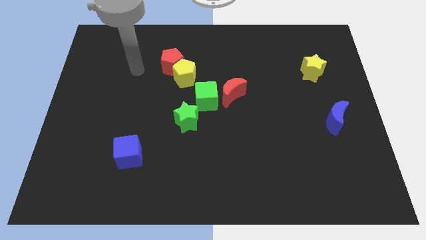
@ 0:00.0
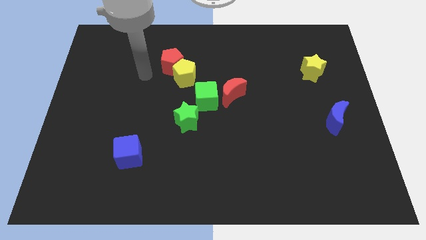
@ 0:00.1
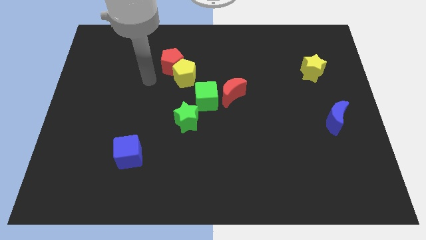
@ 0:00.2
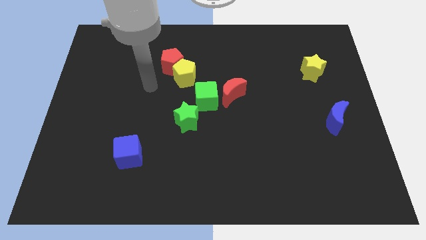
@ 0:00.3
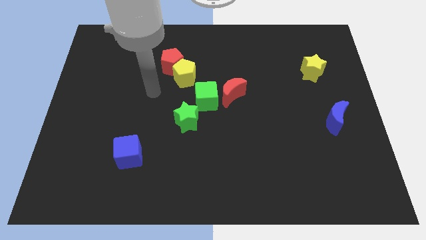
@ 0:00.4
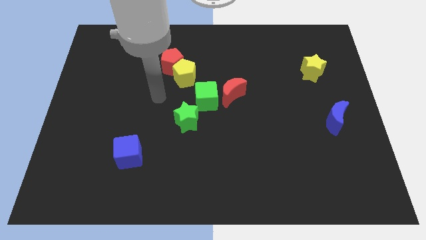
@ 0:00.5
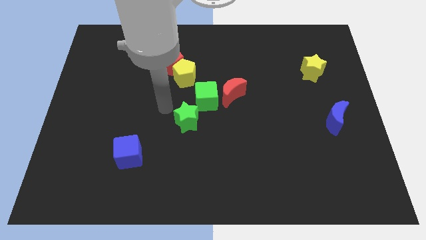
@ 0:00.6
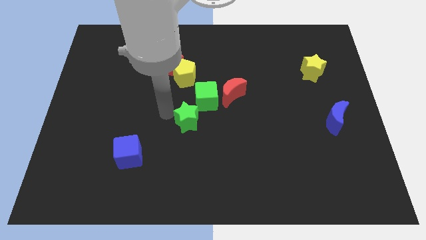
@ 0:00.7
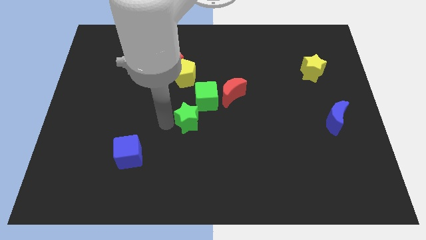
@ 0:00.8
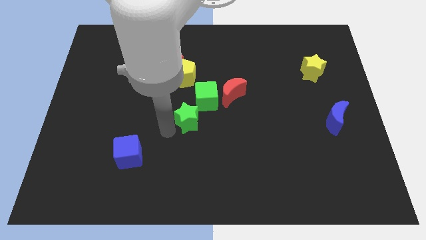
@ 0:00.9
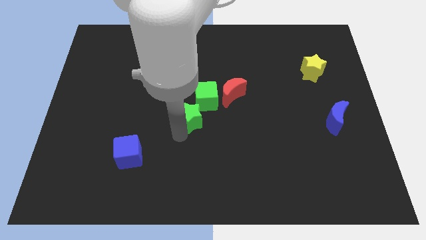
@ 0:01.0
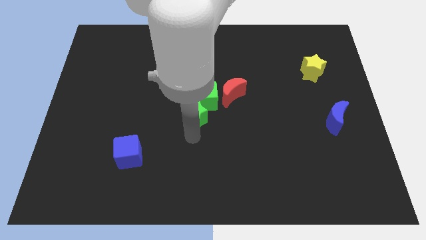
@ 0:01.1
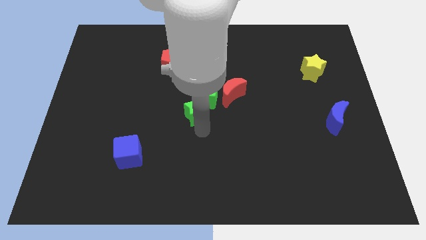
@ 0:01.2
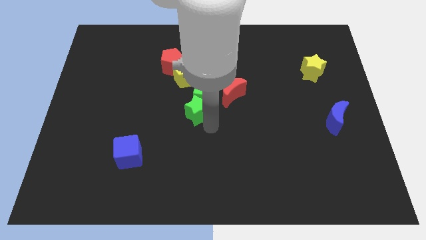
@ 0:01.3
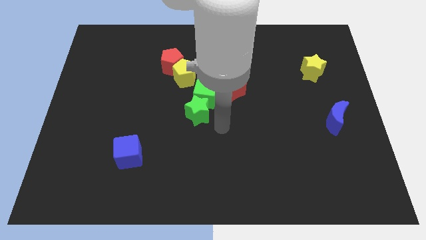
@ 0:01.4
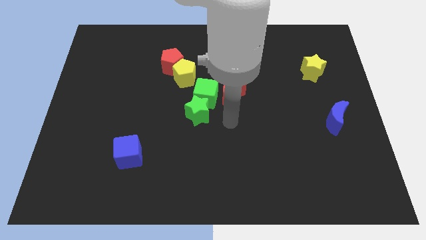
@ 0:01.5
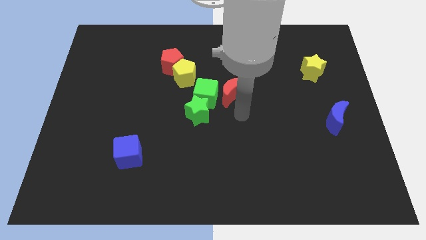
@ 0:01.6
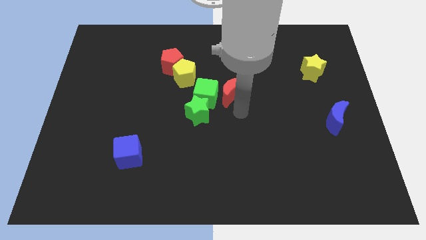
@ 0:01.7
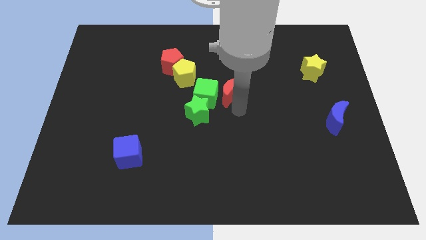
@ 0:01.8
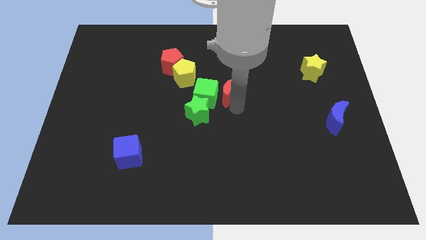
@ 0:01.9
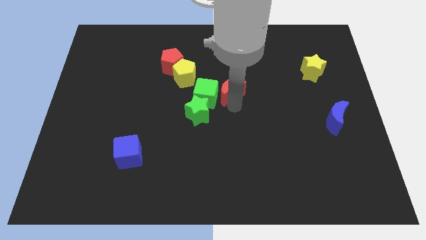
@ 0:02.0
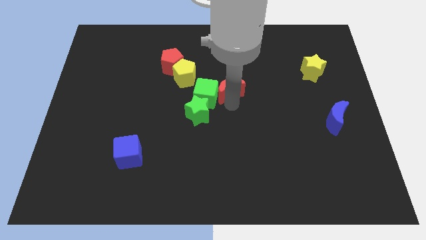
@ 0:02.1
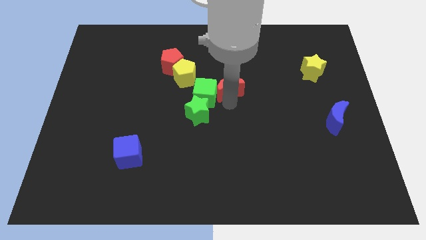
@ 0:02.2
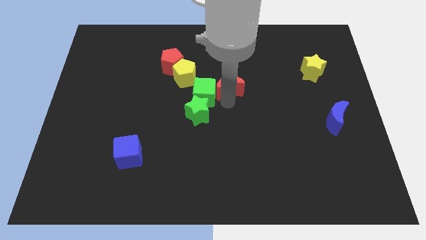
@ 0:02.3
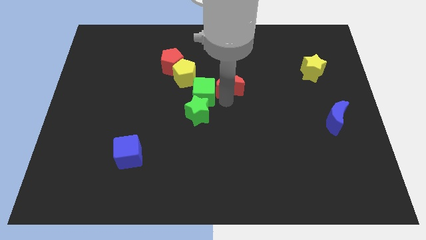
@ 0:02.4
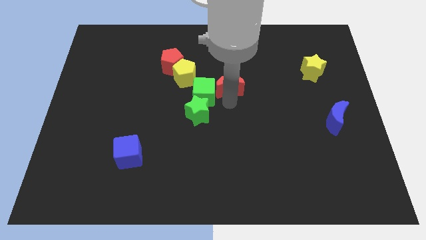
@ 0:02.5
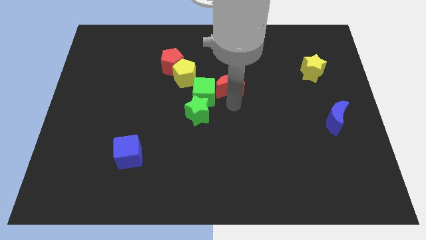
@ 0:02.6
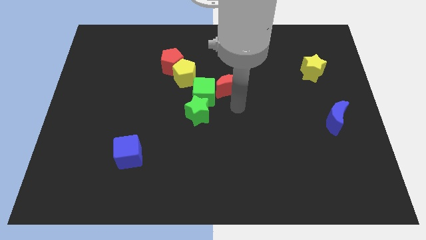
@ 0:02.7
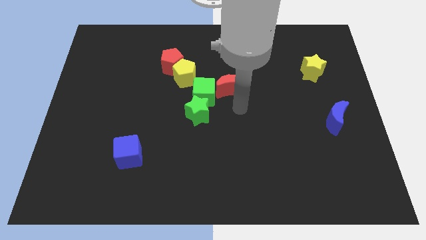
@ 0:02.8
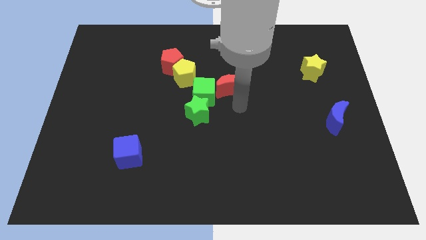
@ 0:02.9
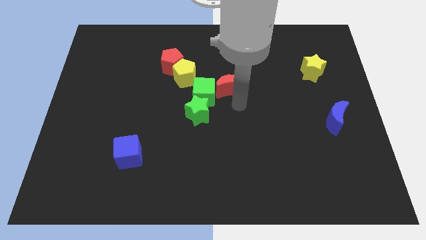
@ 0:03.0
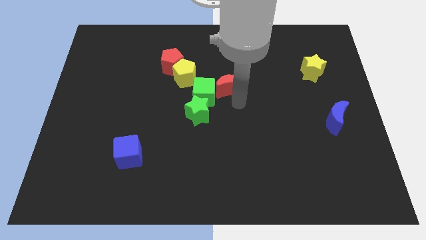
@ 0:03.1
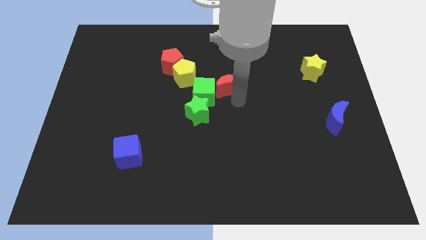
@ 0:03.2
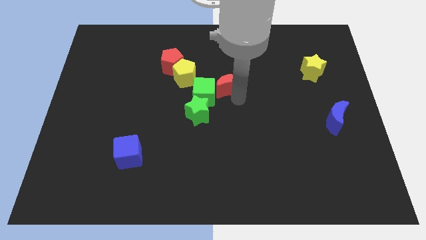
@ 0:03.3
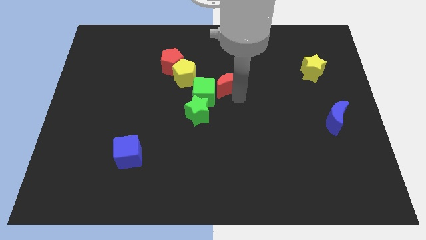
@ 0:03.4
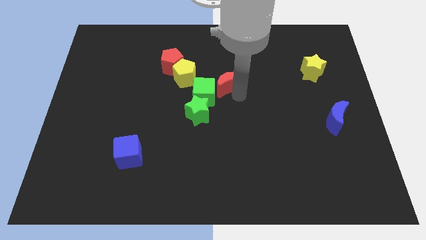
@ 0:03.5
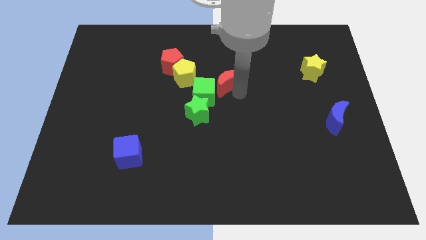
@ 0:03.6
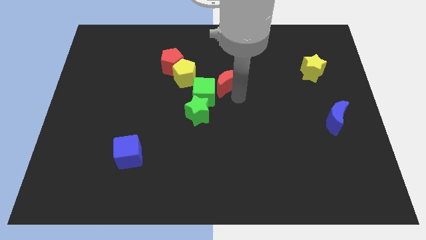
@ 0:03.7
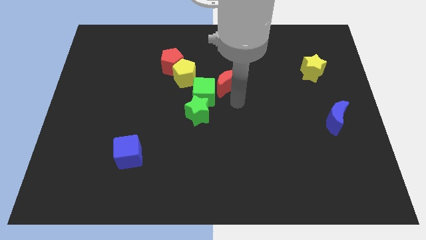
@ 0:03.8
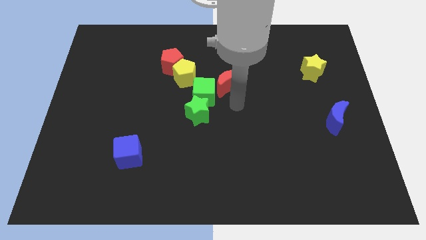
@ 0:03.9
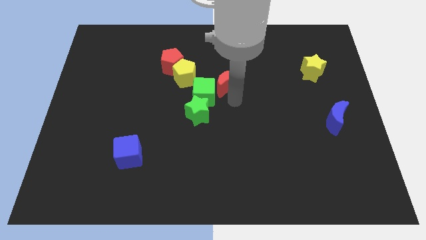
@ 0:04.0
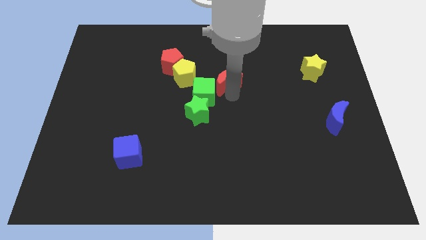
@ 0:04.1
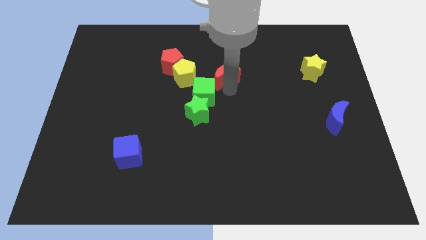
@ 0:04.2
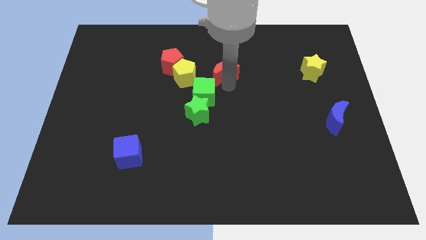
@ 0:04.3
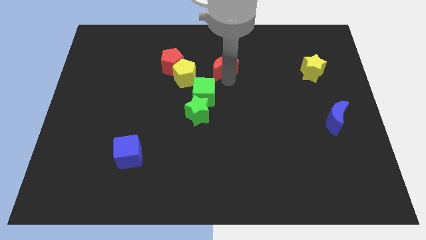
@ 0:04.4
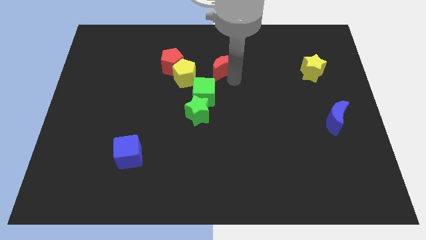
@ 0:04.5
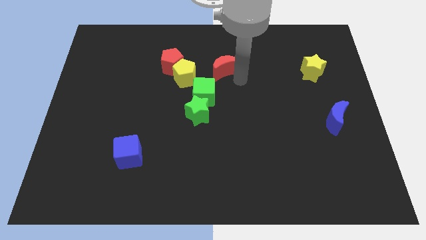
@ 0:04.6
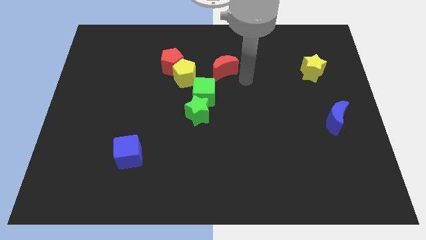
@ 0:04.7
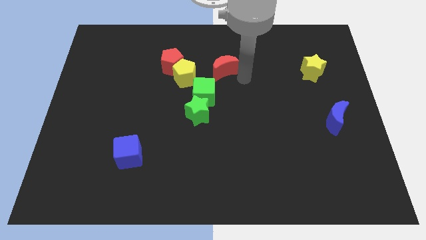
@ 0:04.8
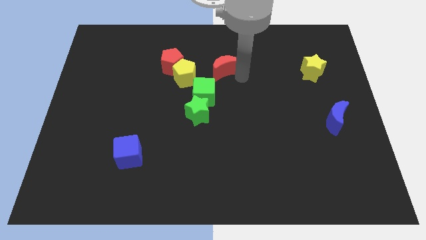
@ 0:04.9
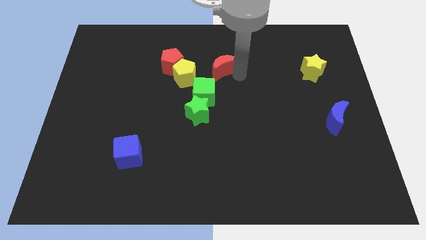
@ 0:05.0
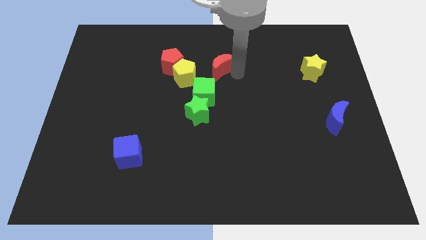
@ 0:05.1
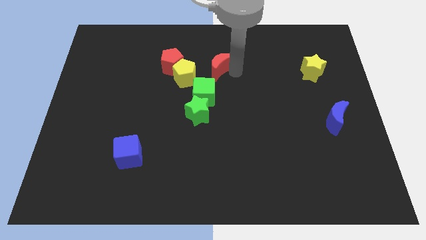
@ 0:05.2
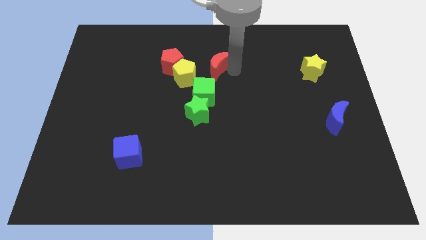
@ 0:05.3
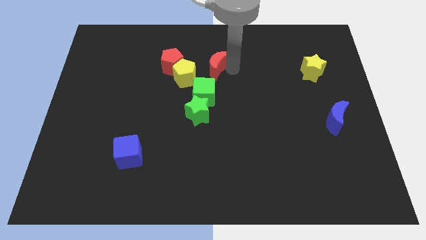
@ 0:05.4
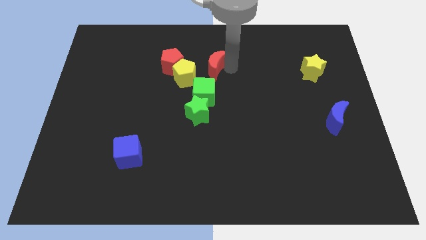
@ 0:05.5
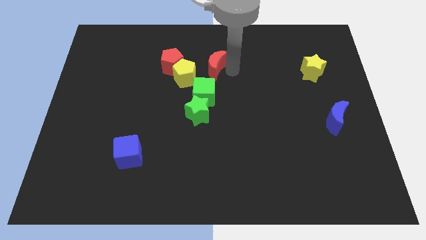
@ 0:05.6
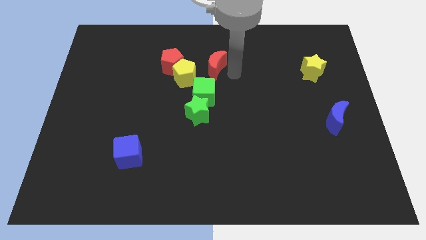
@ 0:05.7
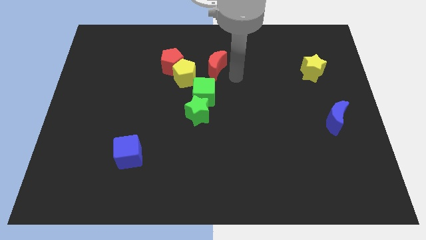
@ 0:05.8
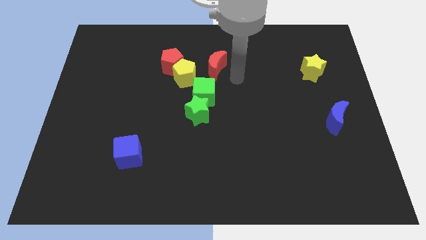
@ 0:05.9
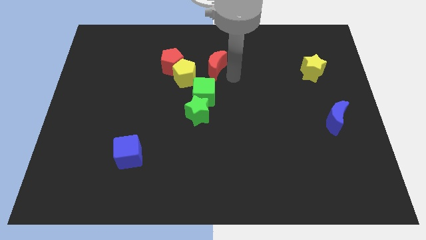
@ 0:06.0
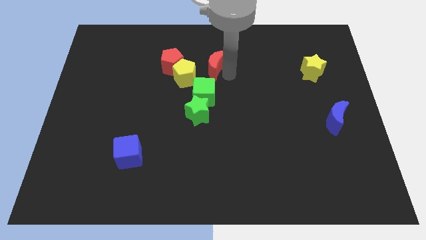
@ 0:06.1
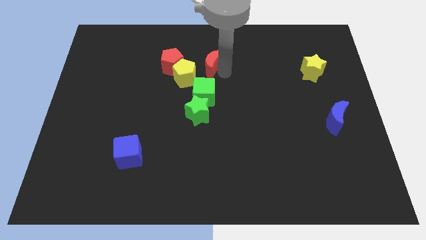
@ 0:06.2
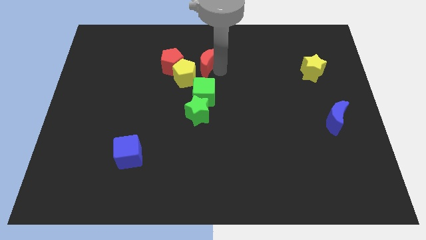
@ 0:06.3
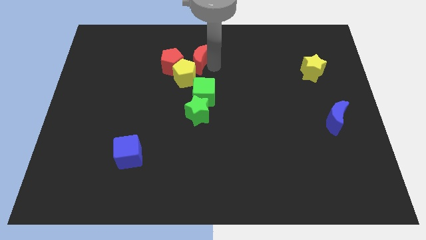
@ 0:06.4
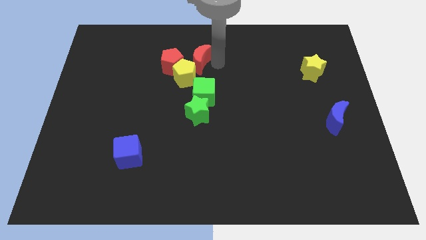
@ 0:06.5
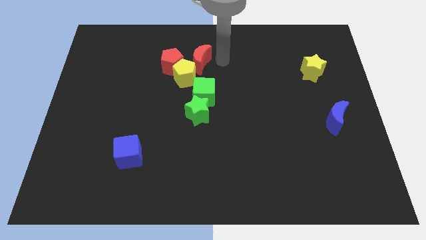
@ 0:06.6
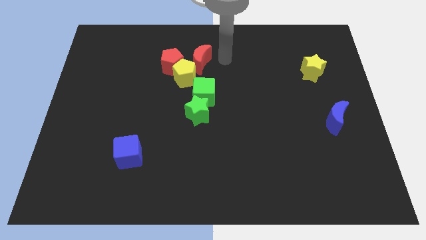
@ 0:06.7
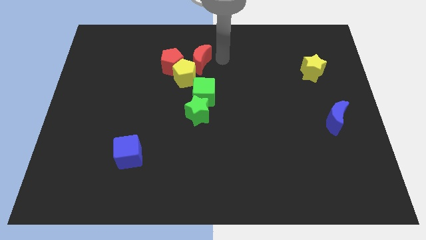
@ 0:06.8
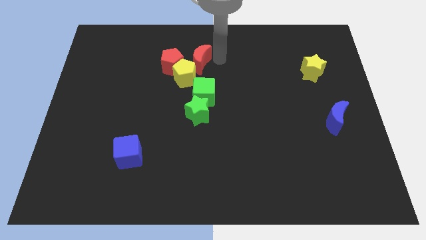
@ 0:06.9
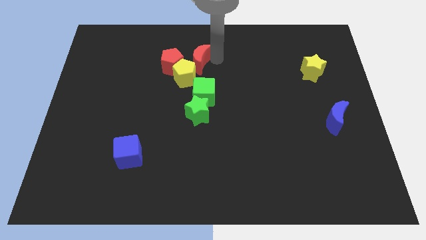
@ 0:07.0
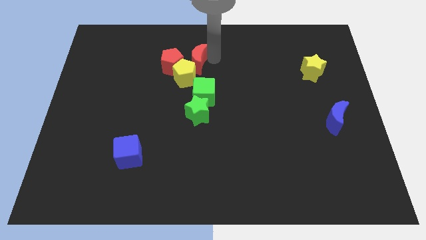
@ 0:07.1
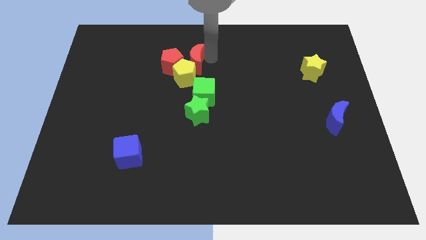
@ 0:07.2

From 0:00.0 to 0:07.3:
push the red moon next to the red pentagon
